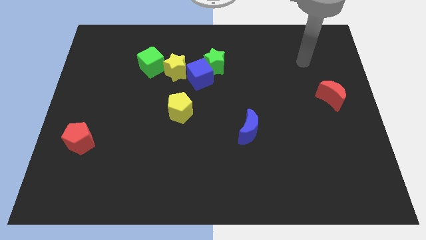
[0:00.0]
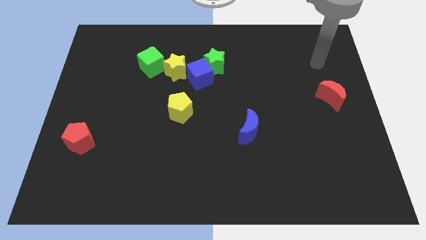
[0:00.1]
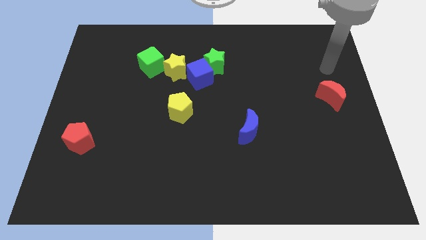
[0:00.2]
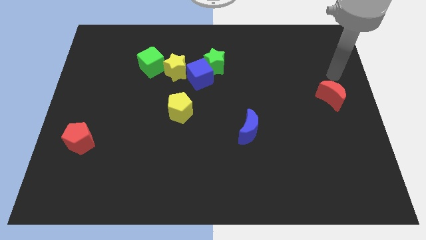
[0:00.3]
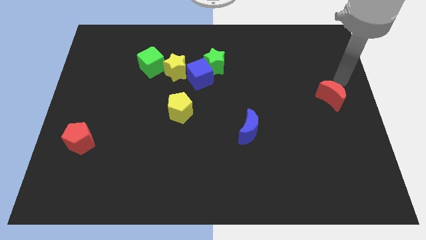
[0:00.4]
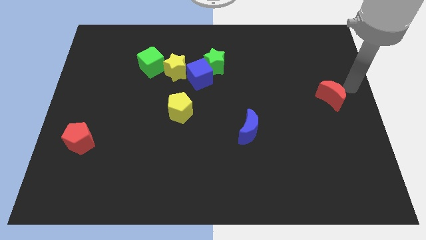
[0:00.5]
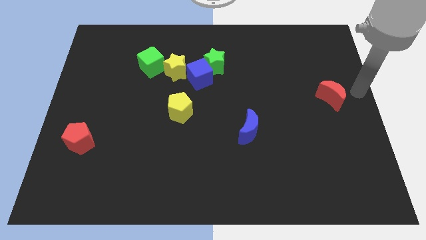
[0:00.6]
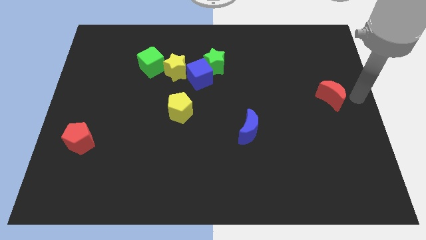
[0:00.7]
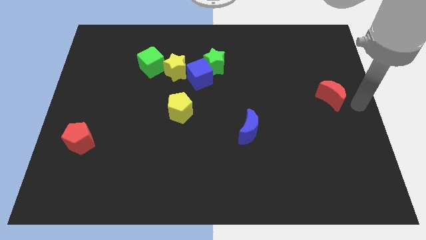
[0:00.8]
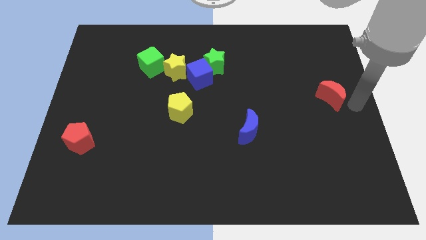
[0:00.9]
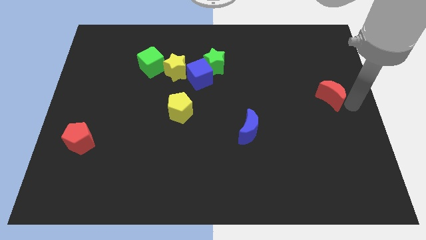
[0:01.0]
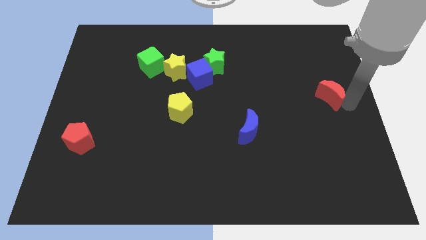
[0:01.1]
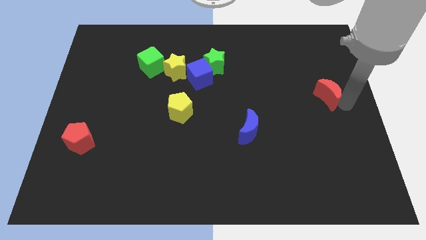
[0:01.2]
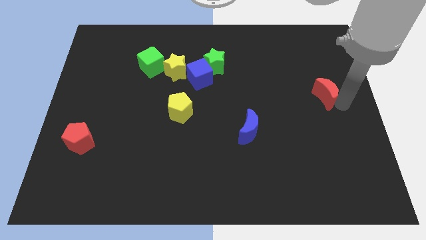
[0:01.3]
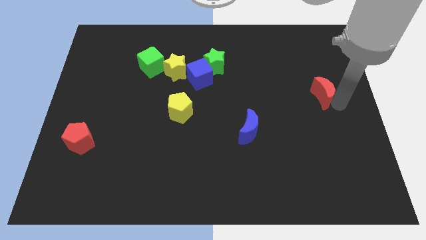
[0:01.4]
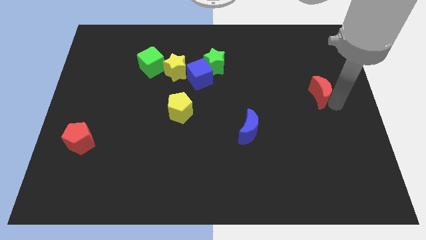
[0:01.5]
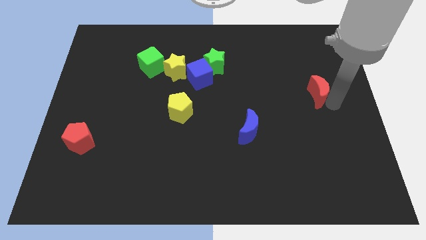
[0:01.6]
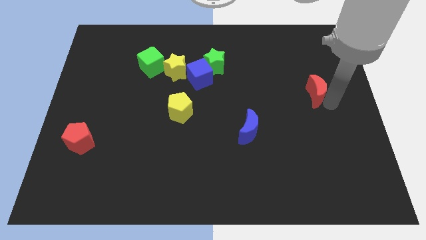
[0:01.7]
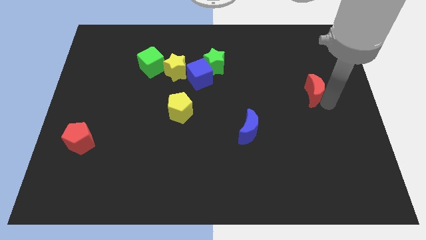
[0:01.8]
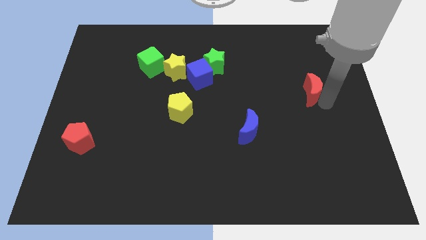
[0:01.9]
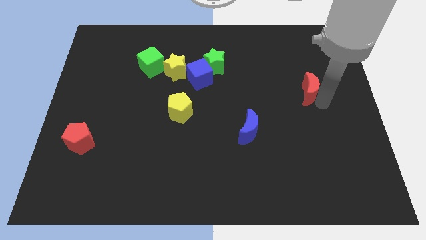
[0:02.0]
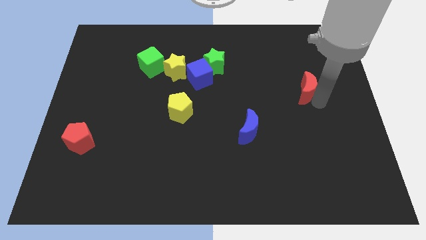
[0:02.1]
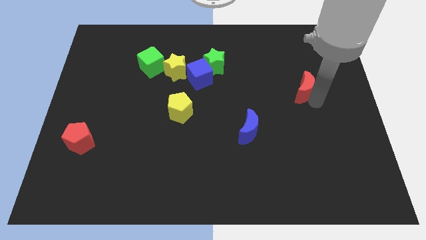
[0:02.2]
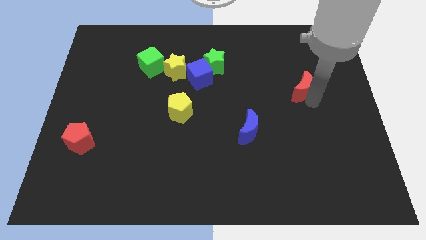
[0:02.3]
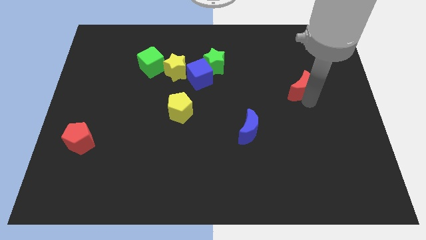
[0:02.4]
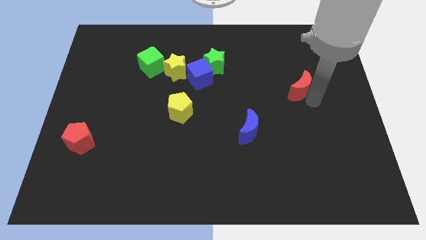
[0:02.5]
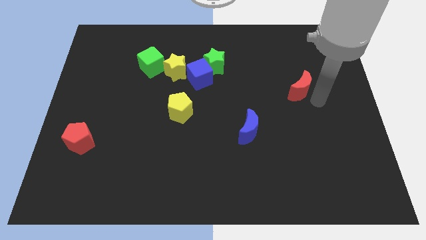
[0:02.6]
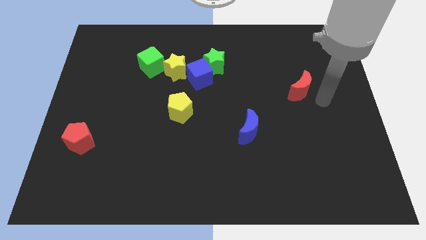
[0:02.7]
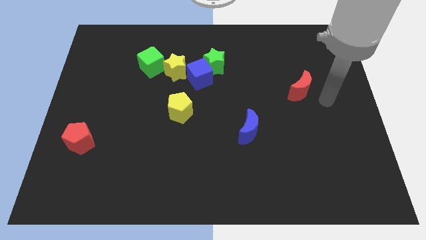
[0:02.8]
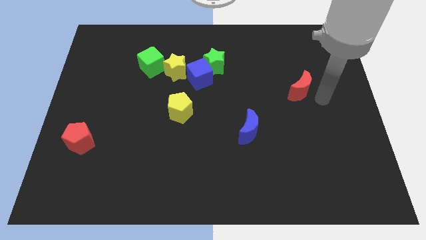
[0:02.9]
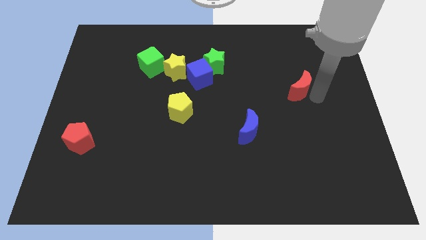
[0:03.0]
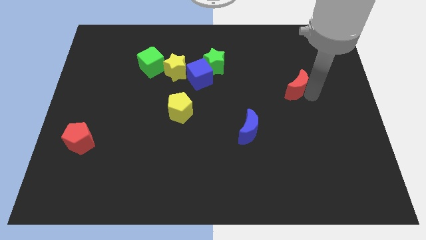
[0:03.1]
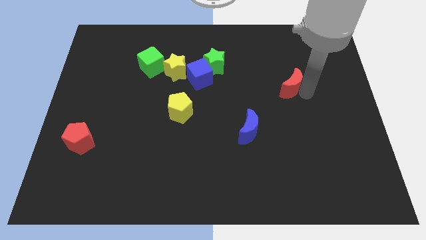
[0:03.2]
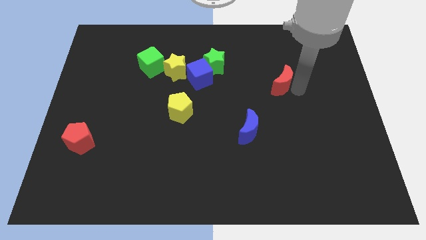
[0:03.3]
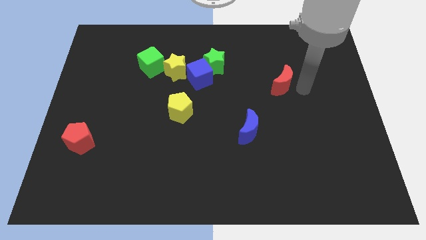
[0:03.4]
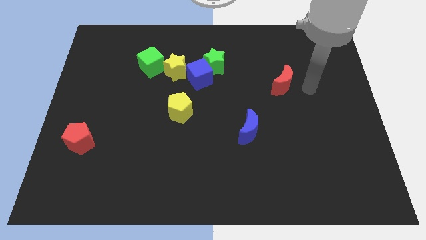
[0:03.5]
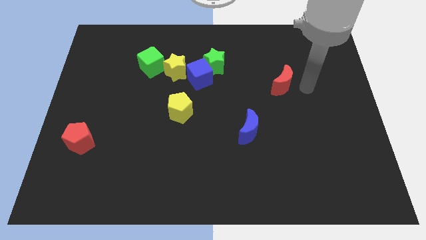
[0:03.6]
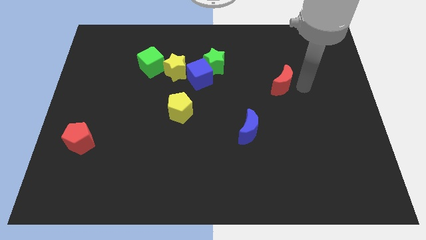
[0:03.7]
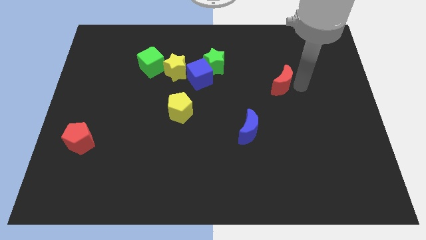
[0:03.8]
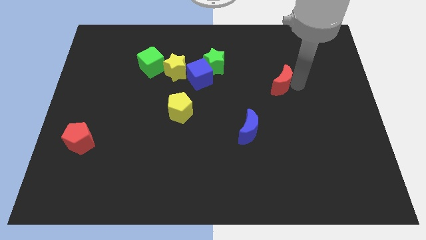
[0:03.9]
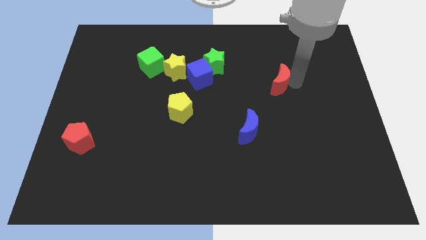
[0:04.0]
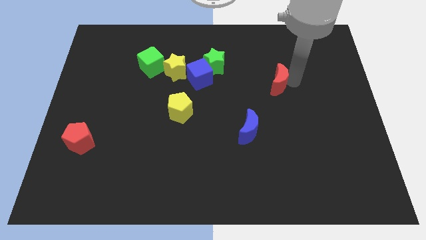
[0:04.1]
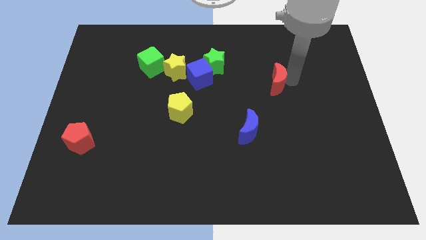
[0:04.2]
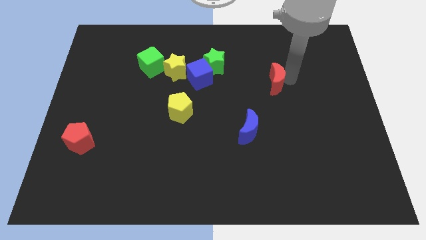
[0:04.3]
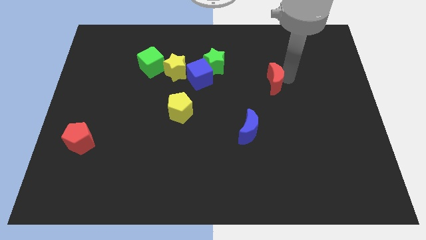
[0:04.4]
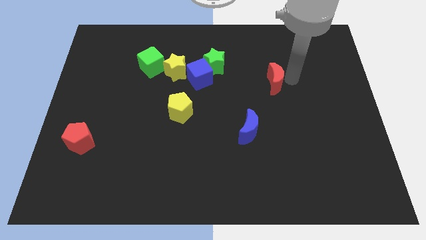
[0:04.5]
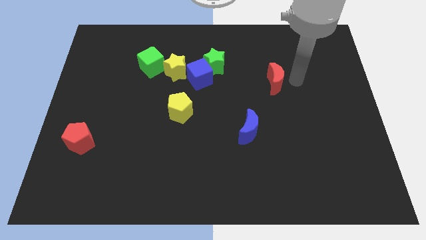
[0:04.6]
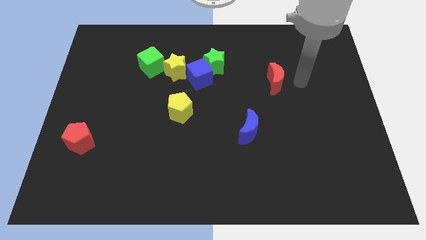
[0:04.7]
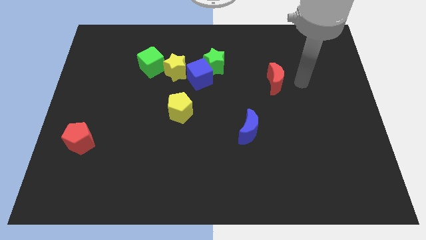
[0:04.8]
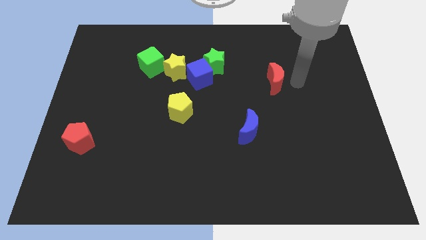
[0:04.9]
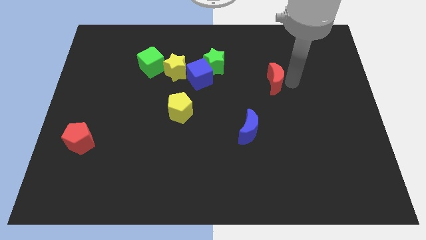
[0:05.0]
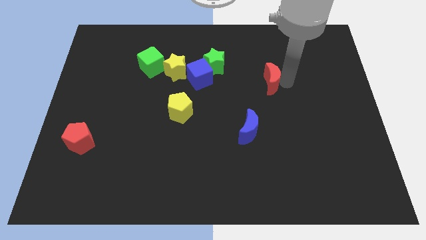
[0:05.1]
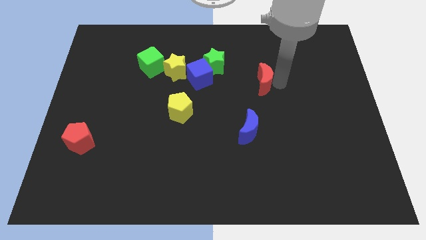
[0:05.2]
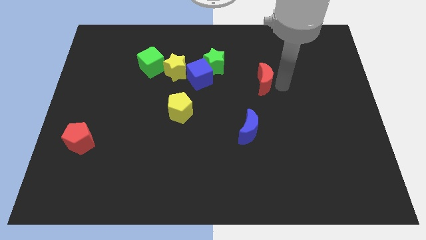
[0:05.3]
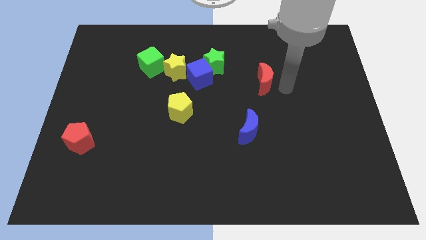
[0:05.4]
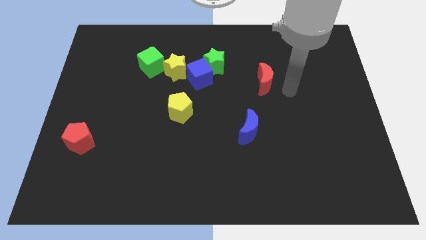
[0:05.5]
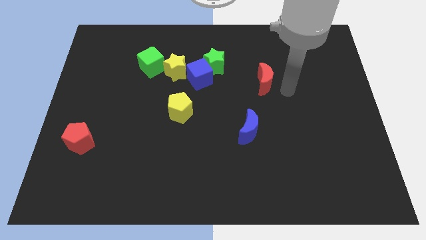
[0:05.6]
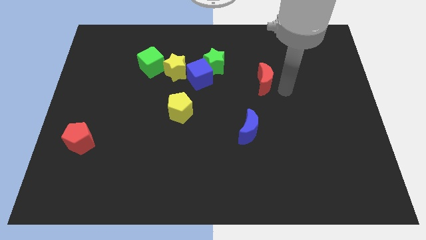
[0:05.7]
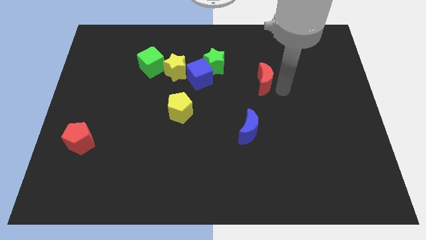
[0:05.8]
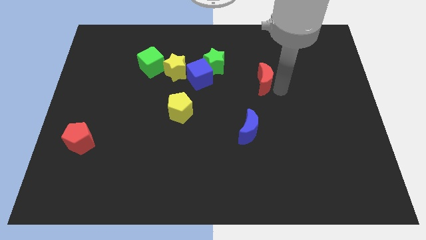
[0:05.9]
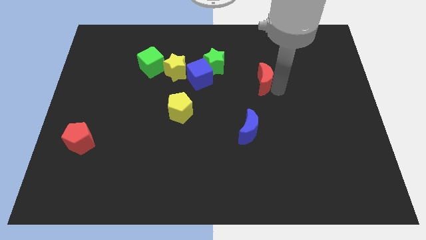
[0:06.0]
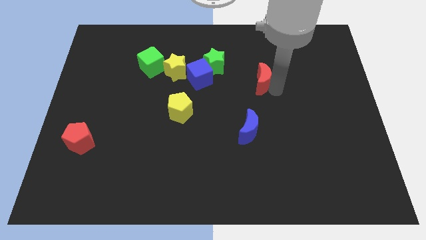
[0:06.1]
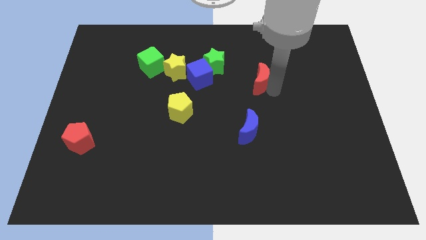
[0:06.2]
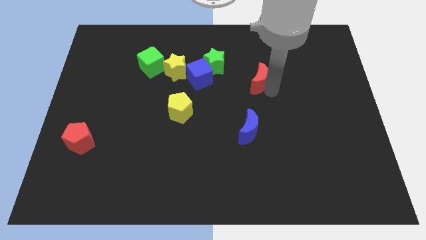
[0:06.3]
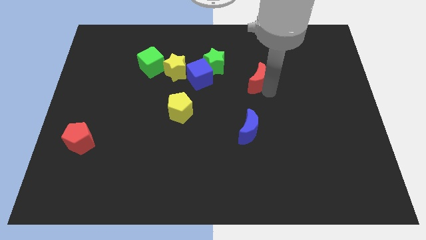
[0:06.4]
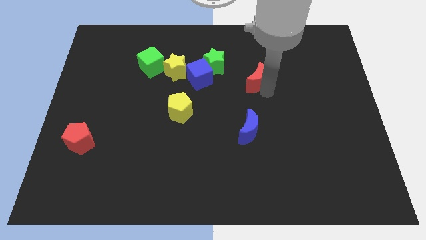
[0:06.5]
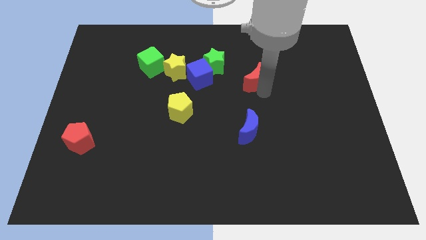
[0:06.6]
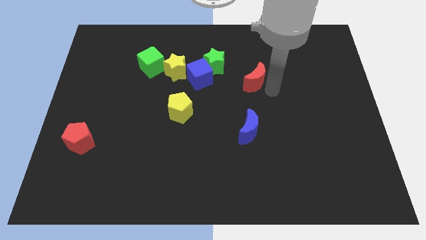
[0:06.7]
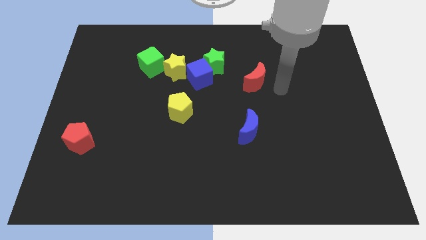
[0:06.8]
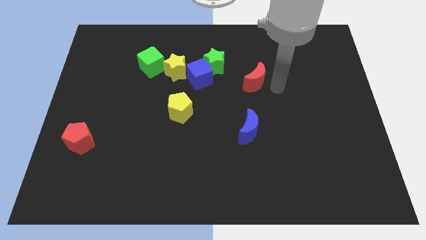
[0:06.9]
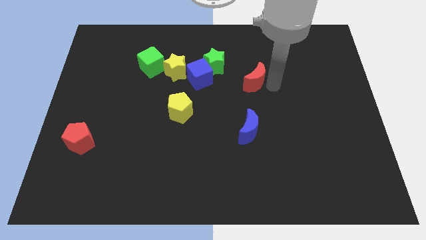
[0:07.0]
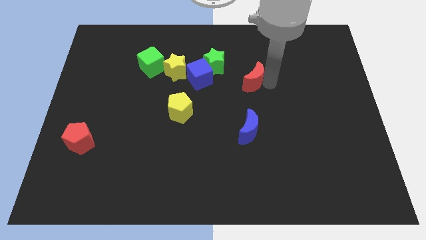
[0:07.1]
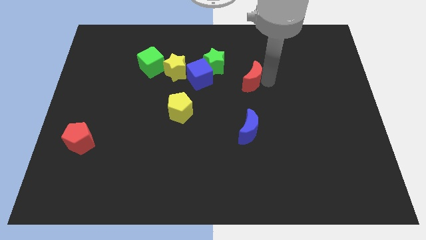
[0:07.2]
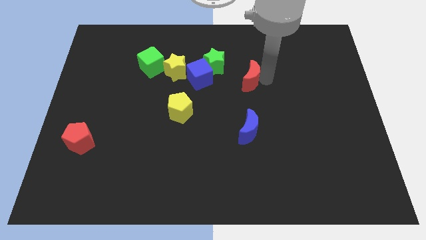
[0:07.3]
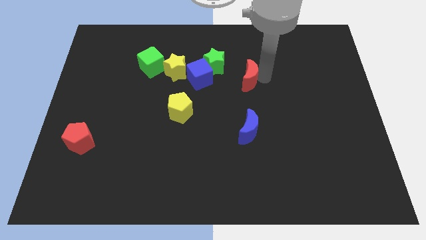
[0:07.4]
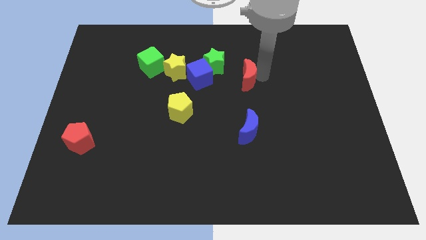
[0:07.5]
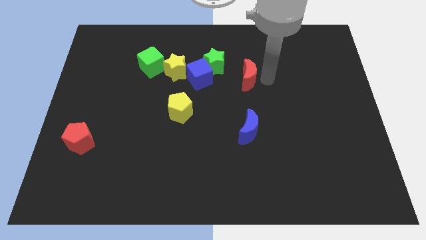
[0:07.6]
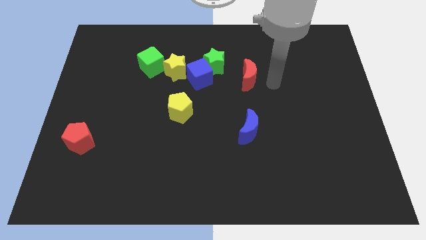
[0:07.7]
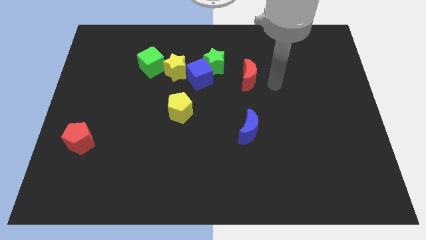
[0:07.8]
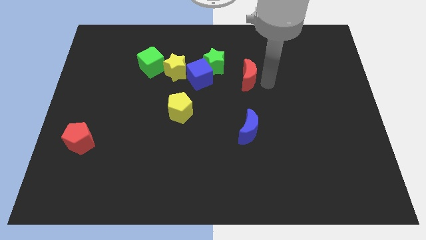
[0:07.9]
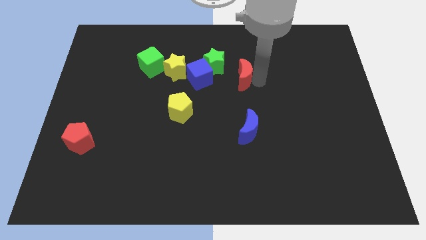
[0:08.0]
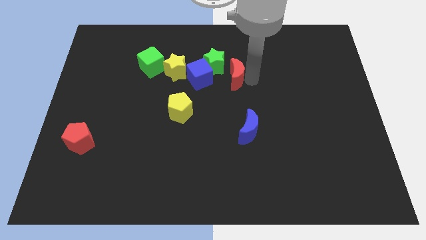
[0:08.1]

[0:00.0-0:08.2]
push the red moon just right of the yellow star
